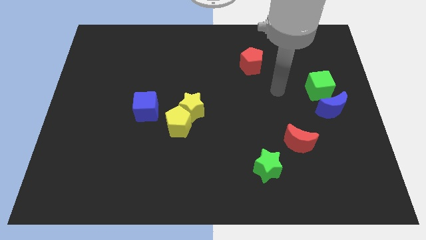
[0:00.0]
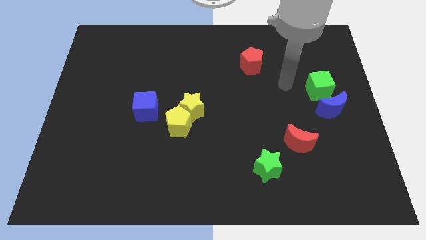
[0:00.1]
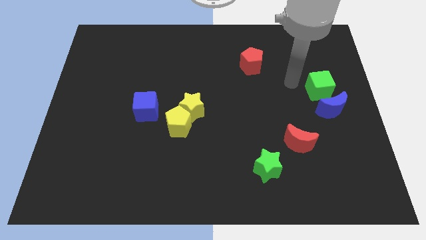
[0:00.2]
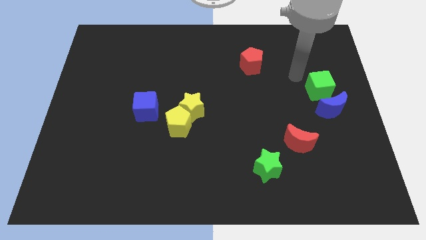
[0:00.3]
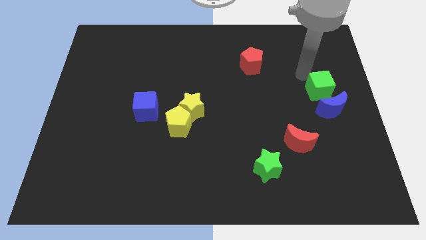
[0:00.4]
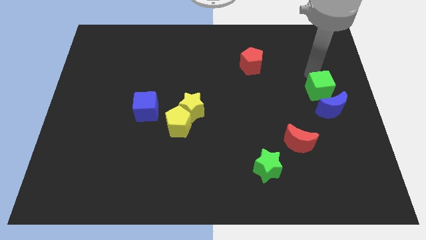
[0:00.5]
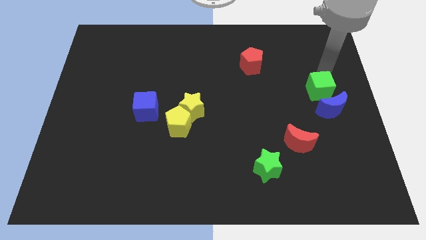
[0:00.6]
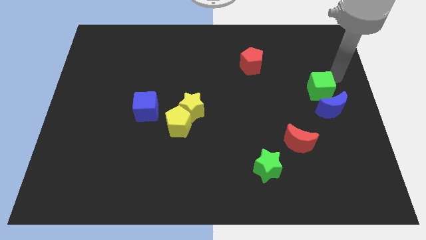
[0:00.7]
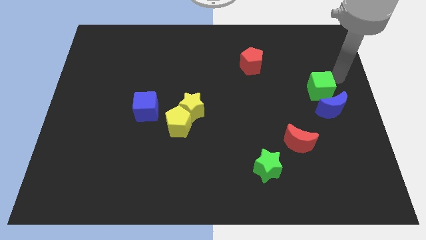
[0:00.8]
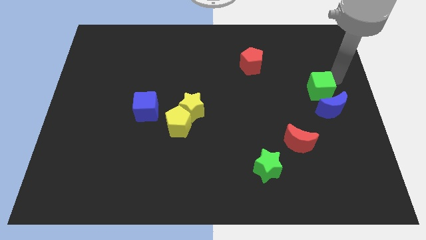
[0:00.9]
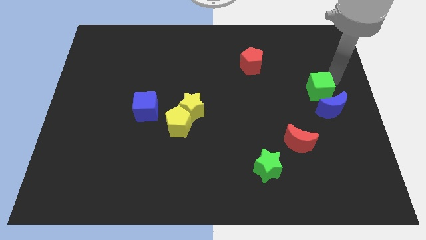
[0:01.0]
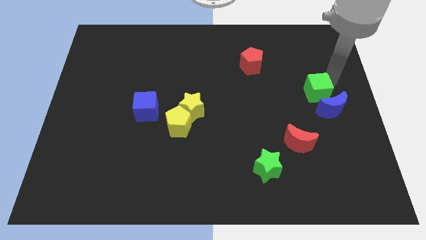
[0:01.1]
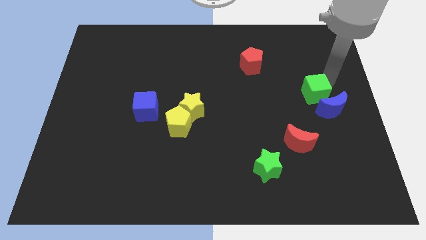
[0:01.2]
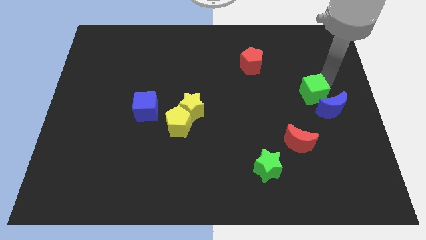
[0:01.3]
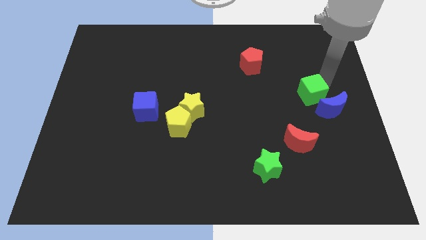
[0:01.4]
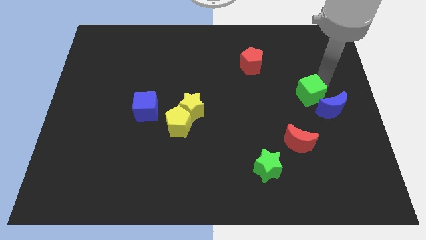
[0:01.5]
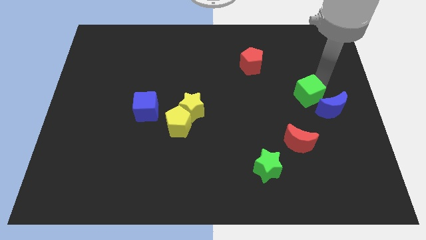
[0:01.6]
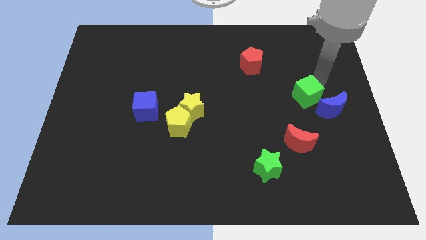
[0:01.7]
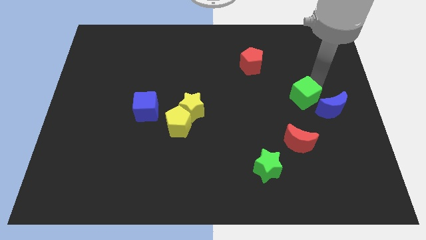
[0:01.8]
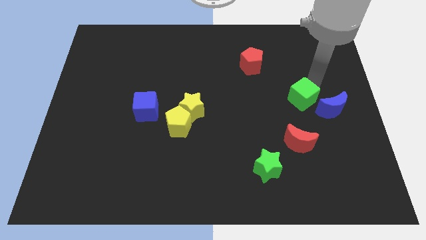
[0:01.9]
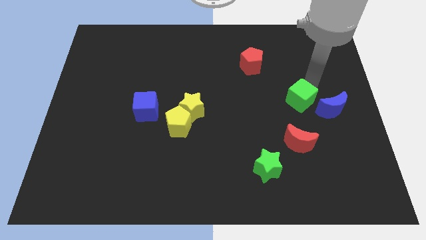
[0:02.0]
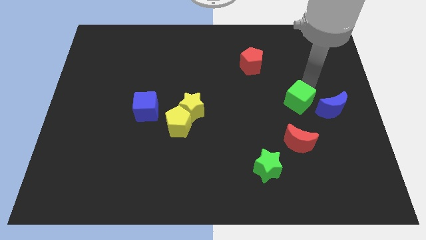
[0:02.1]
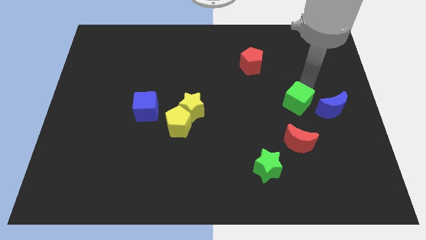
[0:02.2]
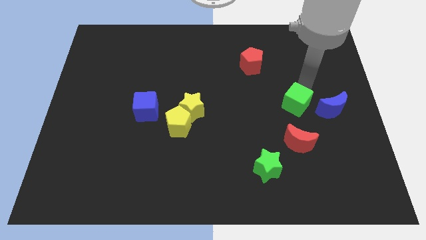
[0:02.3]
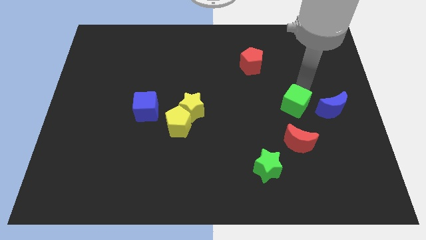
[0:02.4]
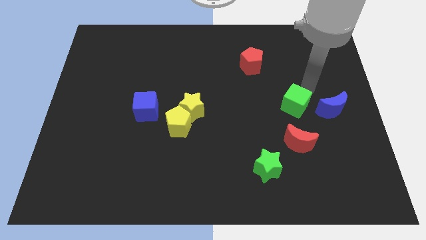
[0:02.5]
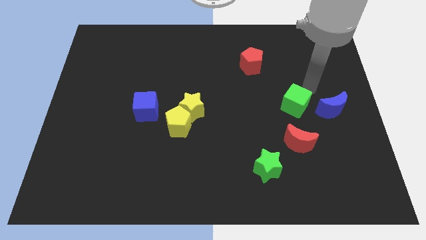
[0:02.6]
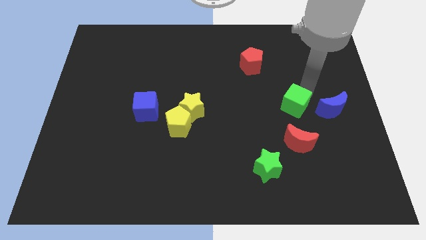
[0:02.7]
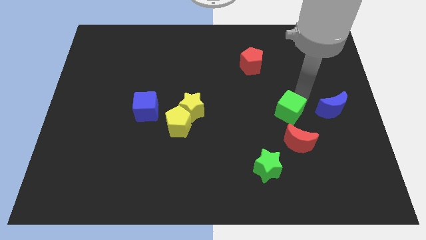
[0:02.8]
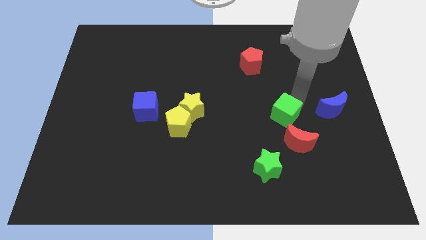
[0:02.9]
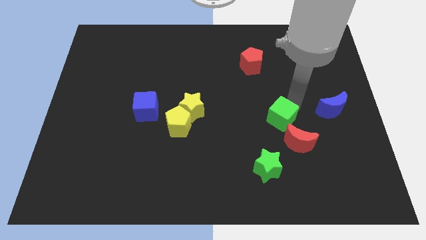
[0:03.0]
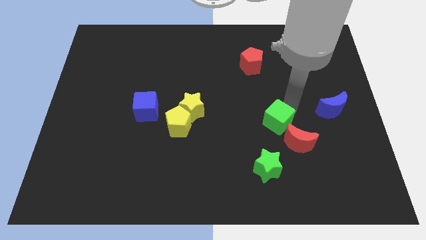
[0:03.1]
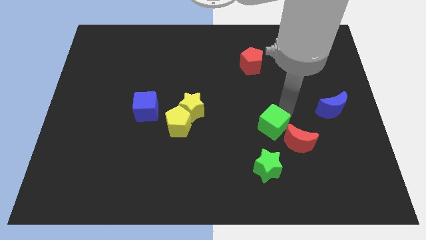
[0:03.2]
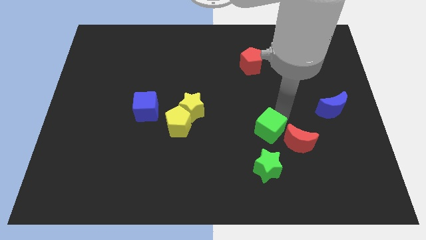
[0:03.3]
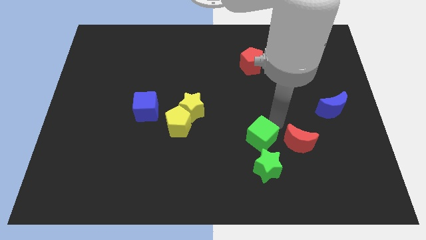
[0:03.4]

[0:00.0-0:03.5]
slide the green cube diagonally downwards and to the left

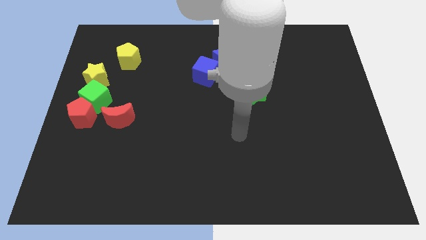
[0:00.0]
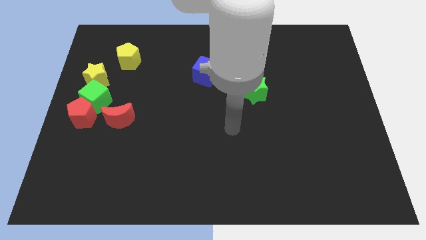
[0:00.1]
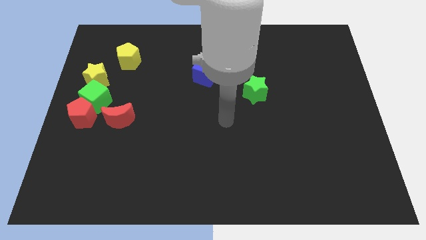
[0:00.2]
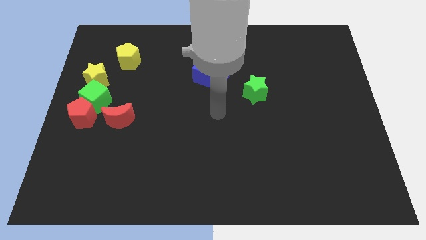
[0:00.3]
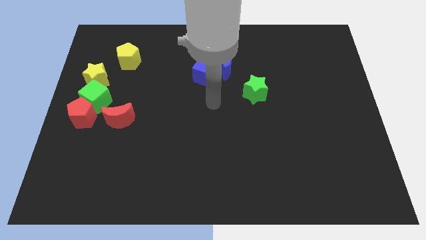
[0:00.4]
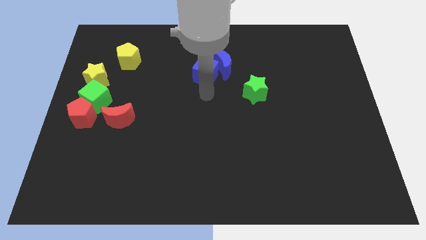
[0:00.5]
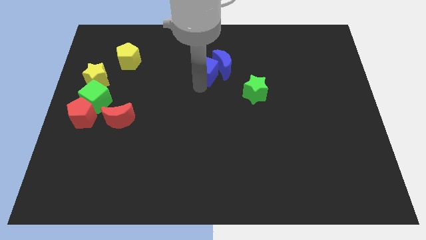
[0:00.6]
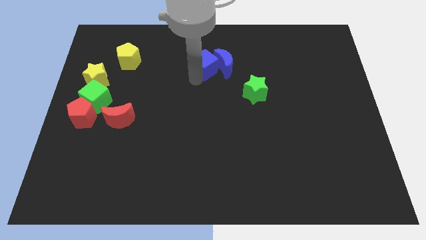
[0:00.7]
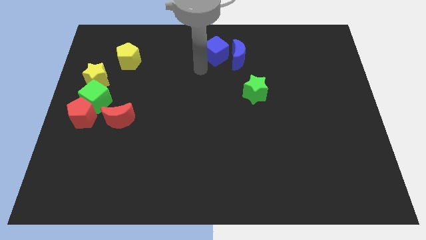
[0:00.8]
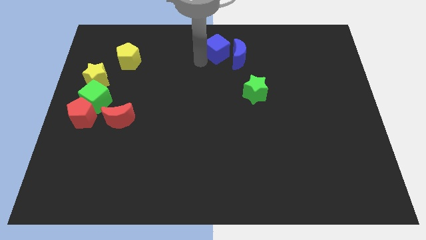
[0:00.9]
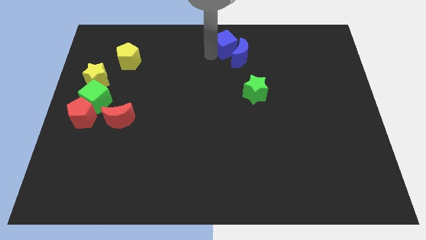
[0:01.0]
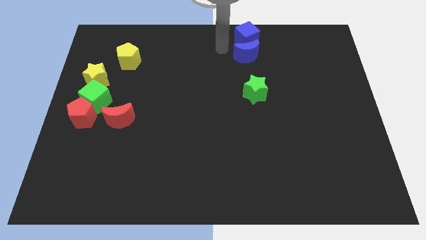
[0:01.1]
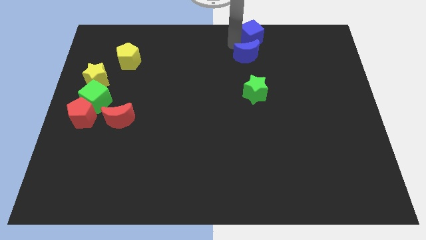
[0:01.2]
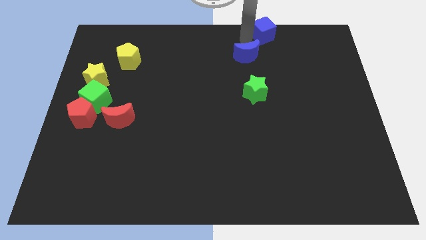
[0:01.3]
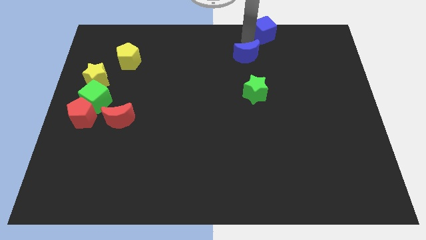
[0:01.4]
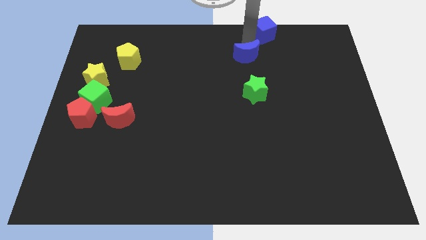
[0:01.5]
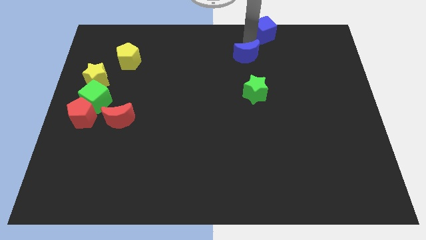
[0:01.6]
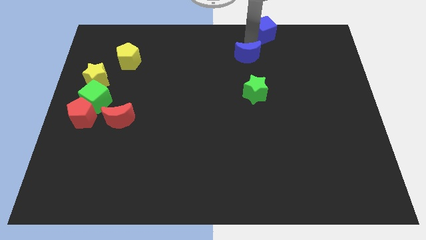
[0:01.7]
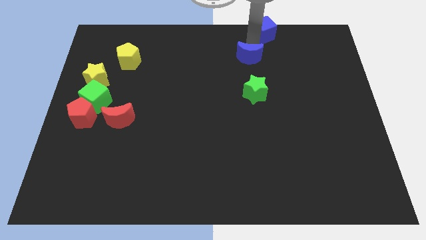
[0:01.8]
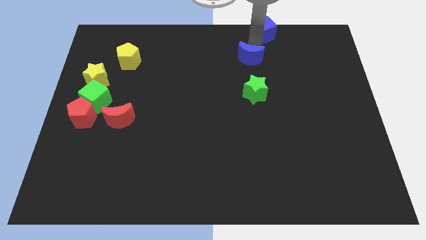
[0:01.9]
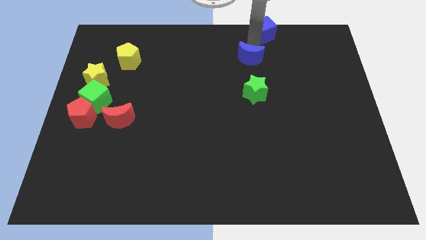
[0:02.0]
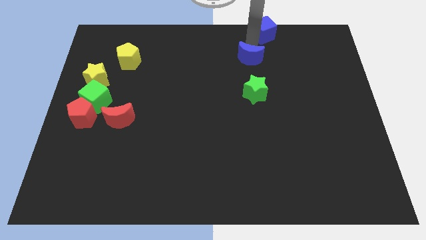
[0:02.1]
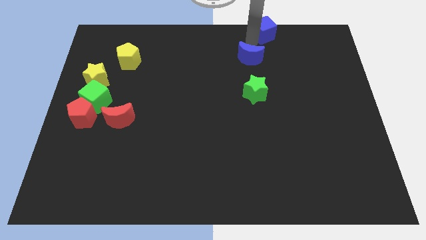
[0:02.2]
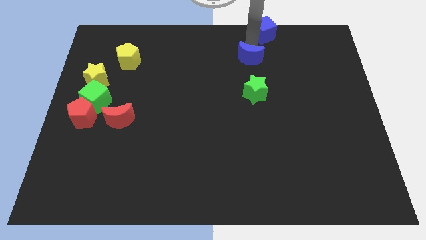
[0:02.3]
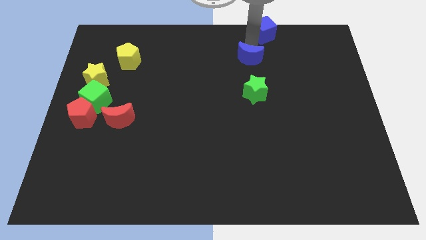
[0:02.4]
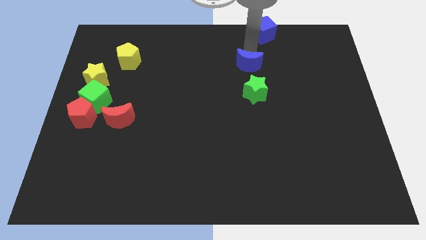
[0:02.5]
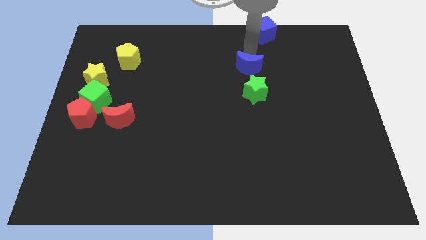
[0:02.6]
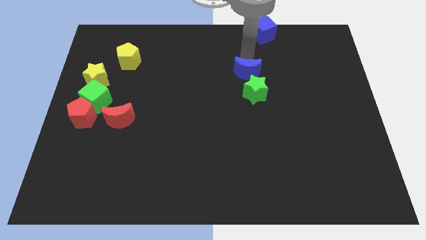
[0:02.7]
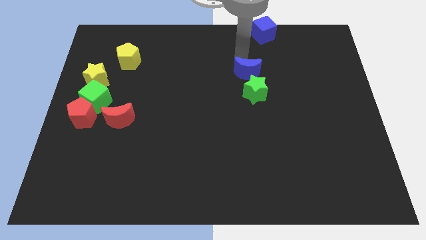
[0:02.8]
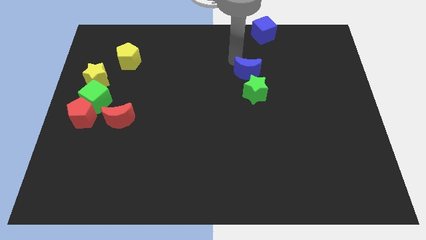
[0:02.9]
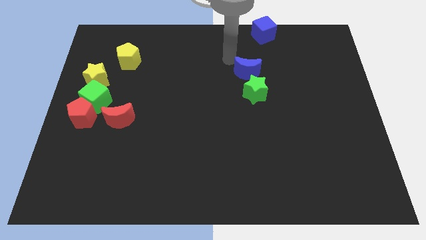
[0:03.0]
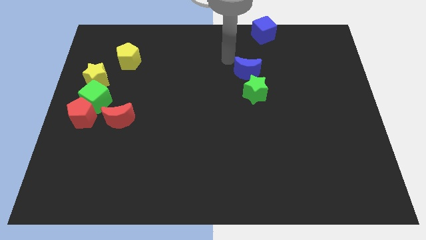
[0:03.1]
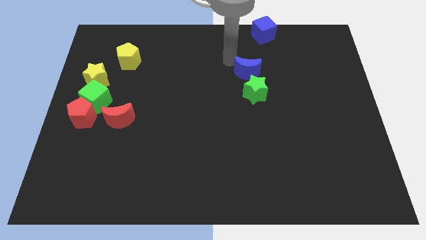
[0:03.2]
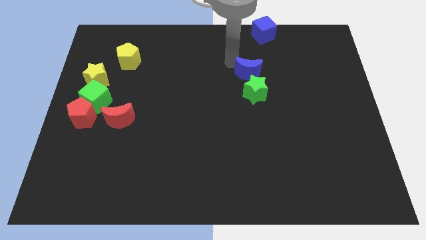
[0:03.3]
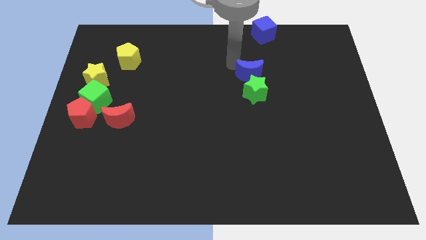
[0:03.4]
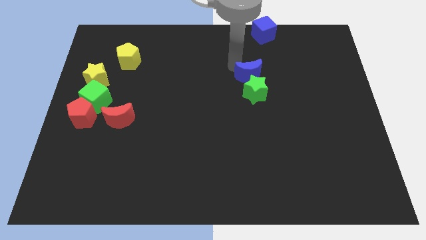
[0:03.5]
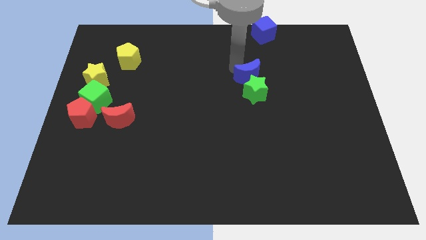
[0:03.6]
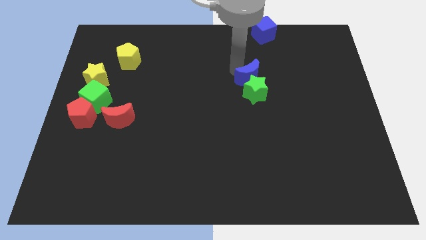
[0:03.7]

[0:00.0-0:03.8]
slightly push the blue moon diagonally downwards and to the right

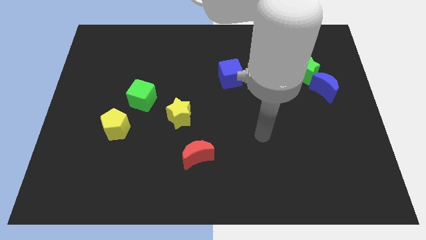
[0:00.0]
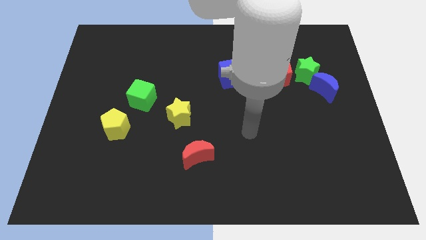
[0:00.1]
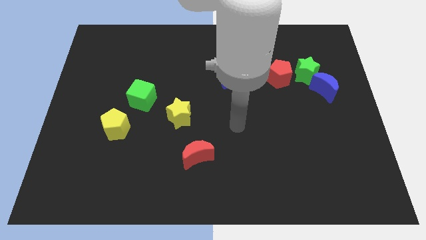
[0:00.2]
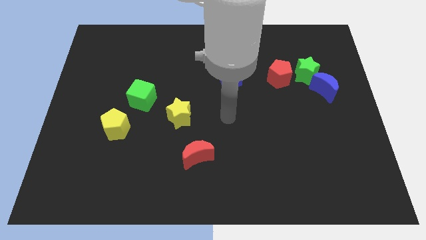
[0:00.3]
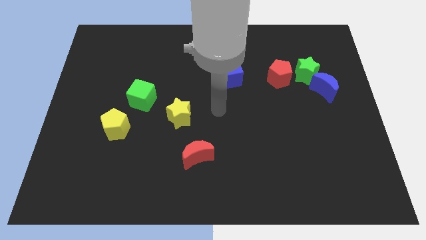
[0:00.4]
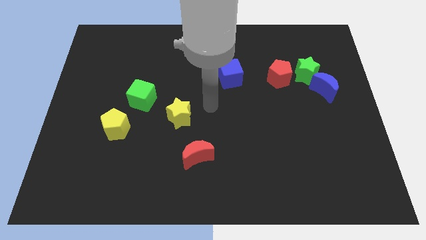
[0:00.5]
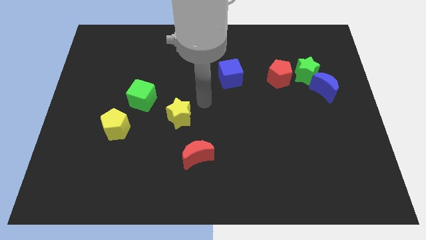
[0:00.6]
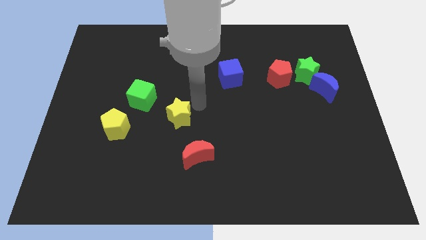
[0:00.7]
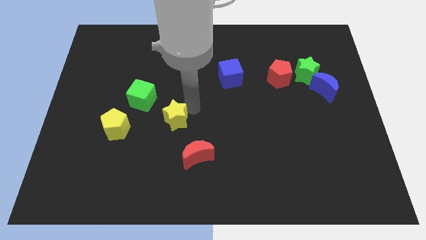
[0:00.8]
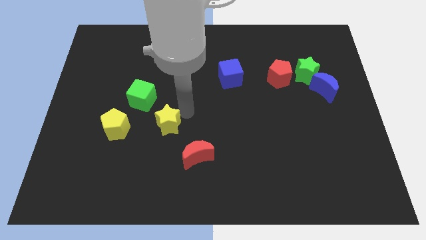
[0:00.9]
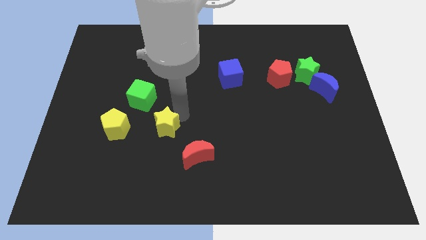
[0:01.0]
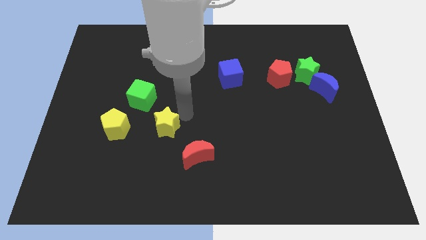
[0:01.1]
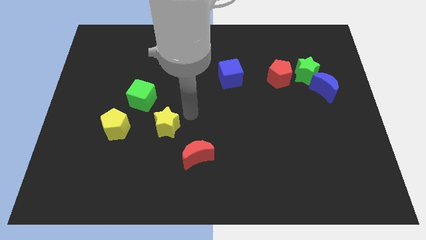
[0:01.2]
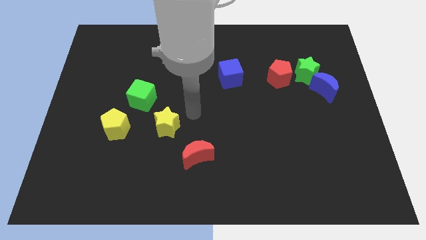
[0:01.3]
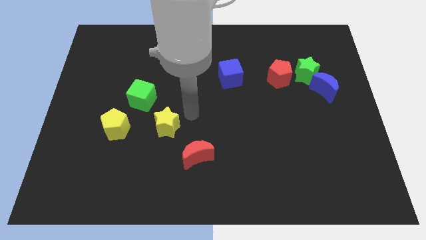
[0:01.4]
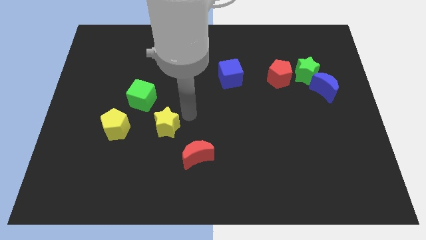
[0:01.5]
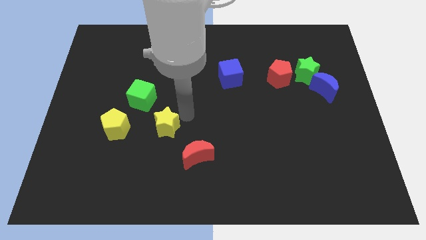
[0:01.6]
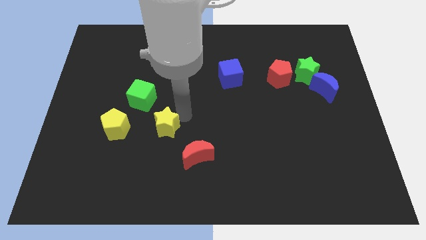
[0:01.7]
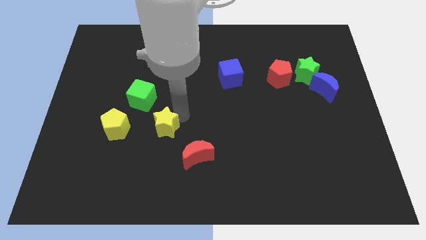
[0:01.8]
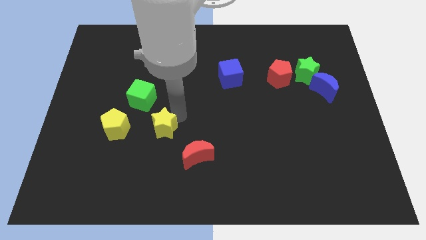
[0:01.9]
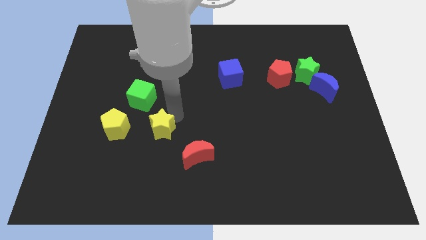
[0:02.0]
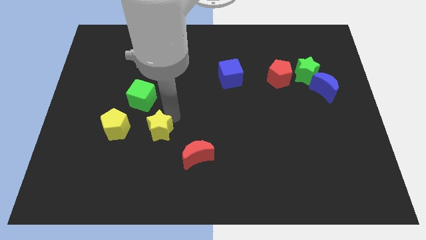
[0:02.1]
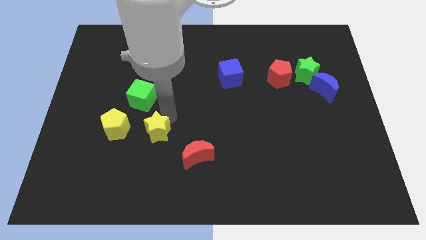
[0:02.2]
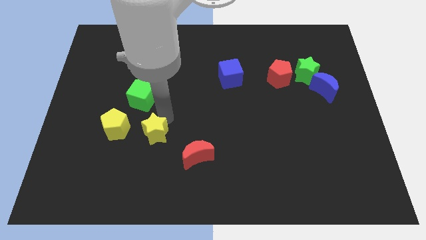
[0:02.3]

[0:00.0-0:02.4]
push the yellow star a bit down and then left
